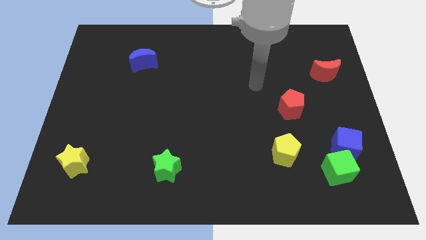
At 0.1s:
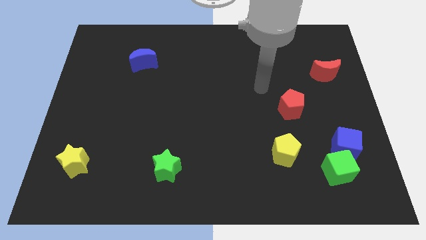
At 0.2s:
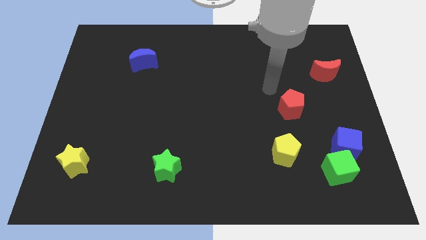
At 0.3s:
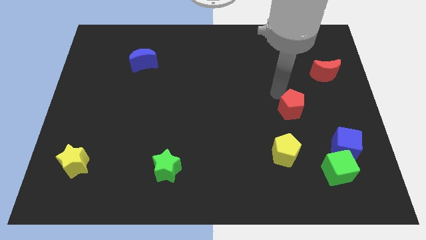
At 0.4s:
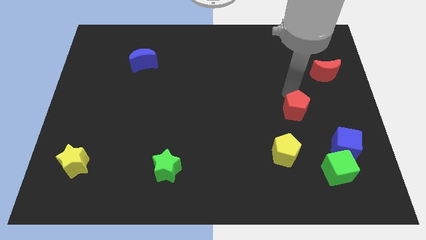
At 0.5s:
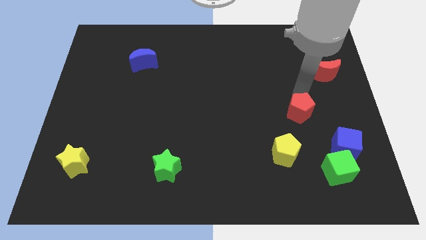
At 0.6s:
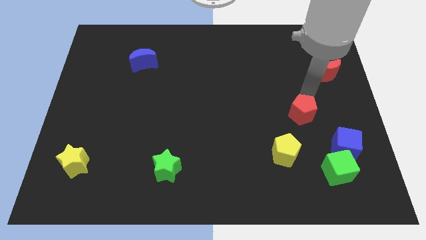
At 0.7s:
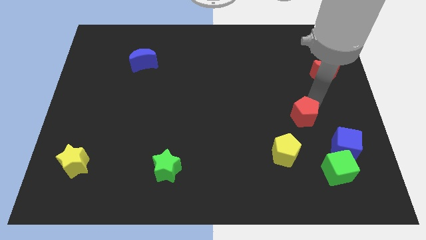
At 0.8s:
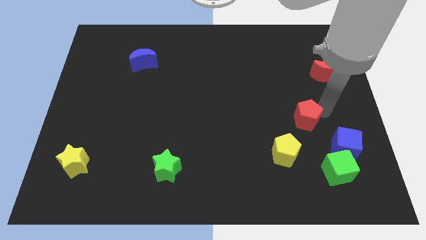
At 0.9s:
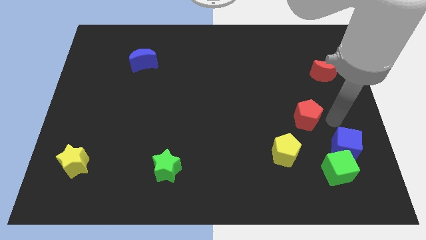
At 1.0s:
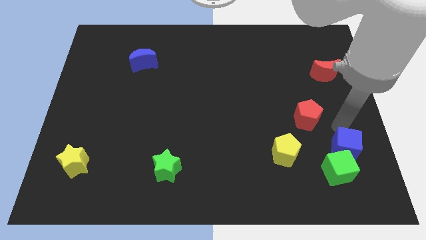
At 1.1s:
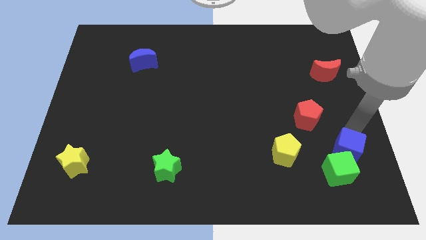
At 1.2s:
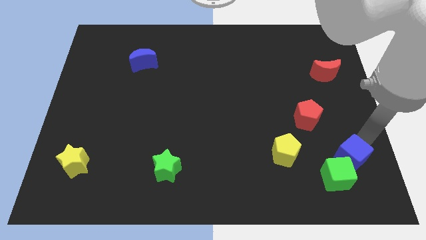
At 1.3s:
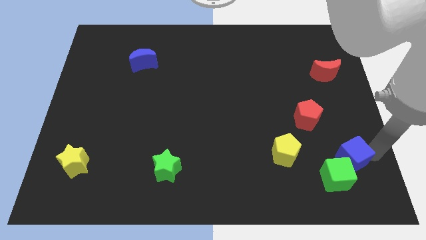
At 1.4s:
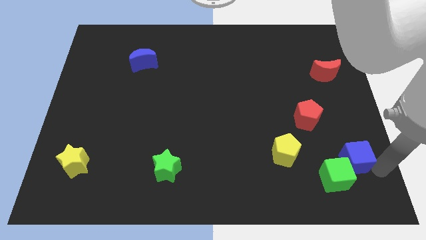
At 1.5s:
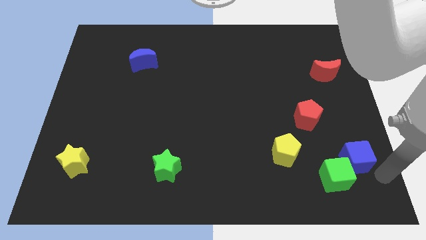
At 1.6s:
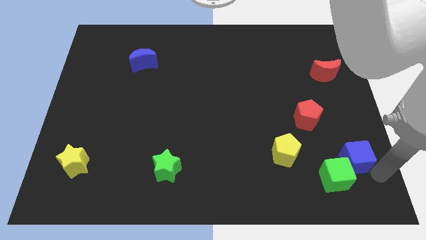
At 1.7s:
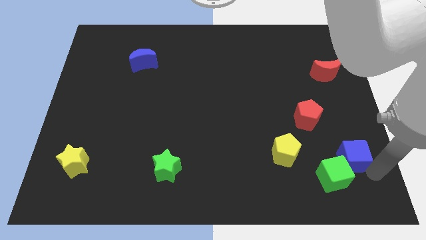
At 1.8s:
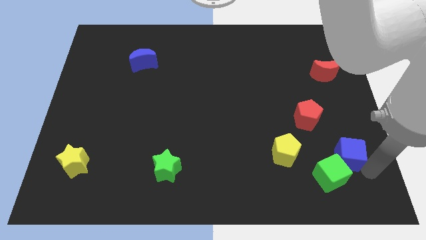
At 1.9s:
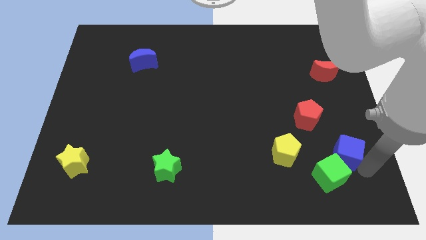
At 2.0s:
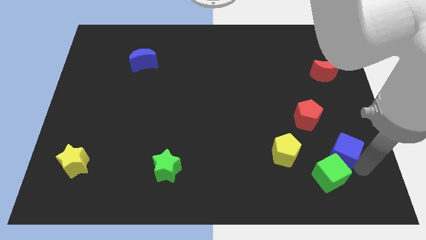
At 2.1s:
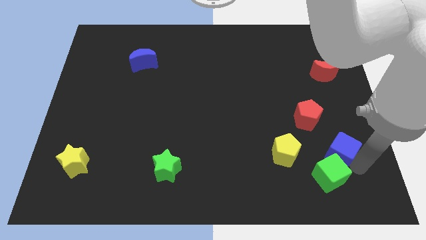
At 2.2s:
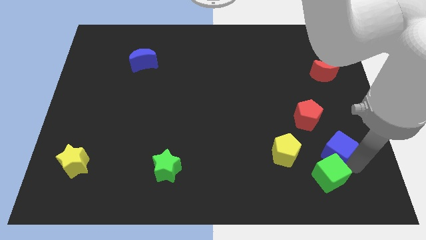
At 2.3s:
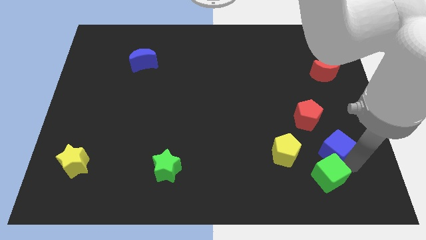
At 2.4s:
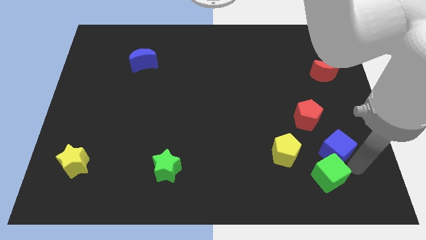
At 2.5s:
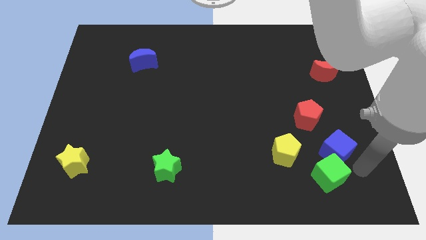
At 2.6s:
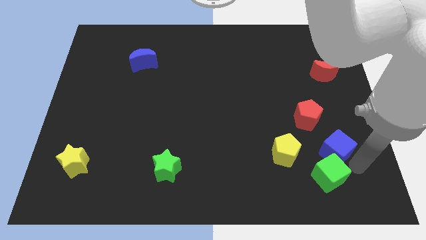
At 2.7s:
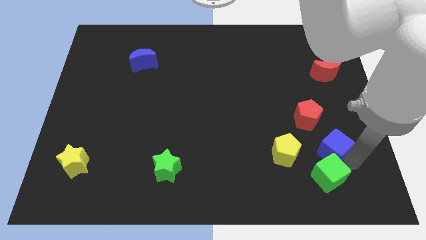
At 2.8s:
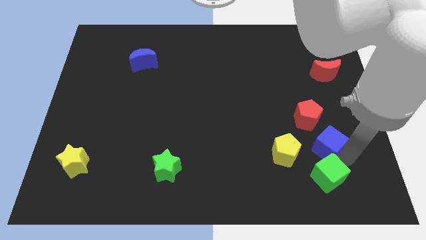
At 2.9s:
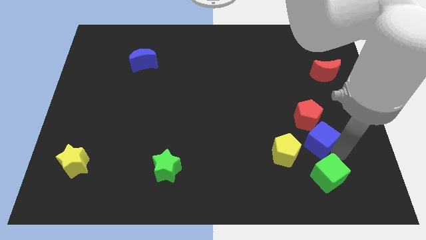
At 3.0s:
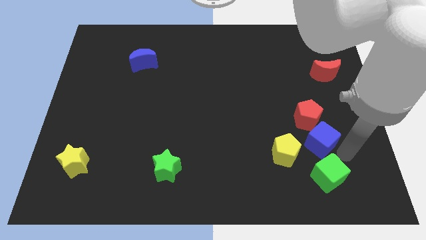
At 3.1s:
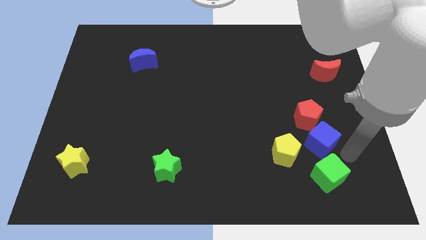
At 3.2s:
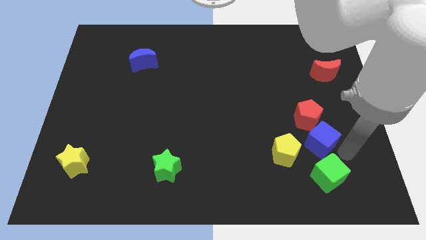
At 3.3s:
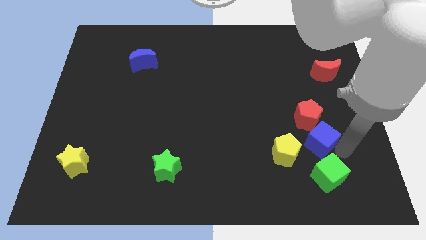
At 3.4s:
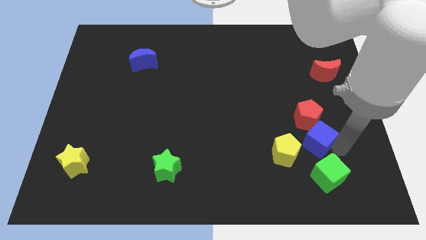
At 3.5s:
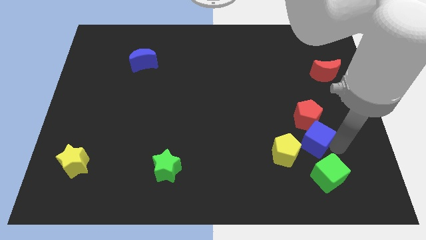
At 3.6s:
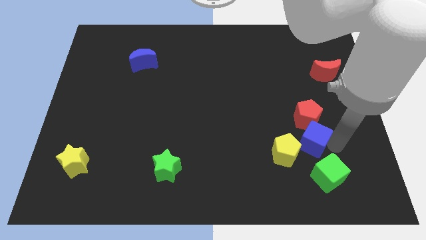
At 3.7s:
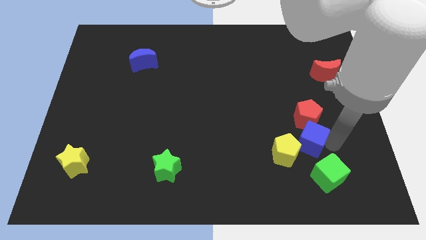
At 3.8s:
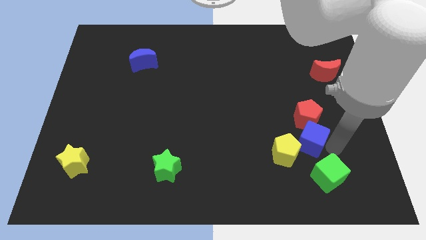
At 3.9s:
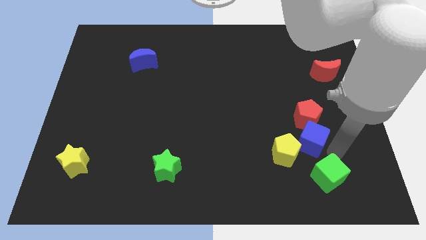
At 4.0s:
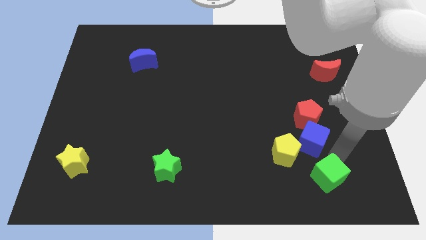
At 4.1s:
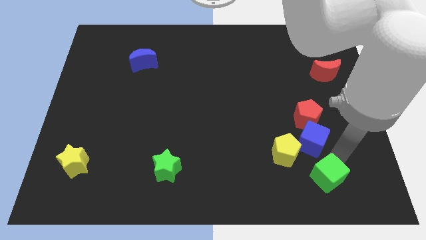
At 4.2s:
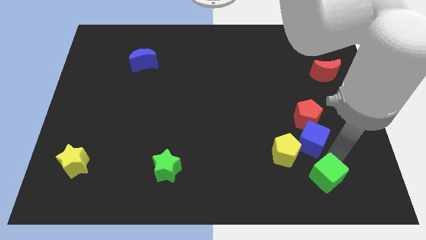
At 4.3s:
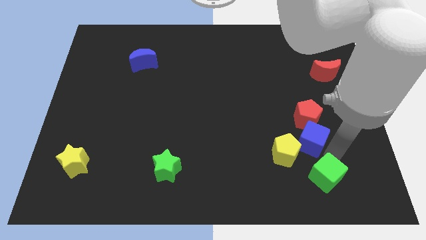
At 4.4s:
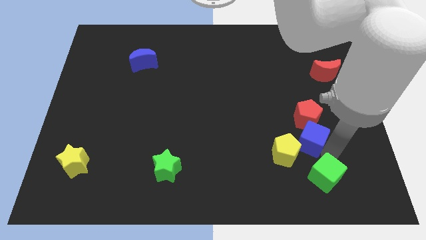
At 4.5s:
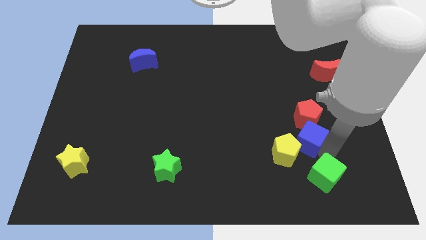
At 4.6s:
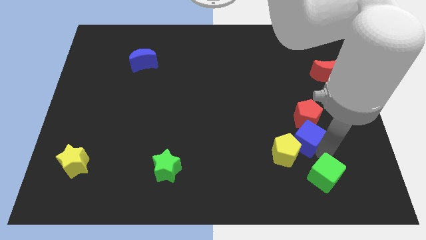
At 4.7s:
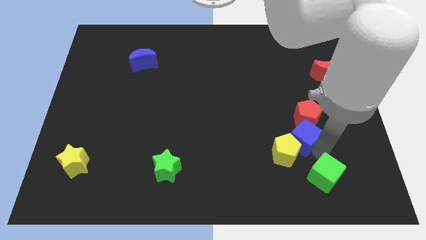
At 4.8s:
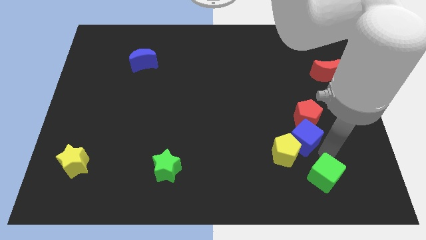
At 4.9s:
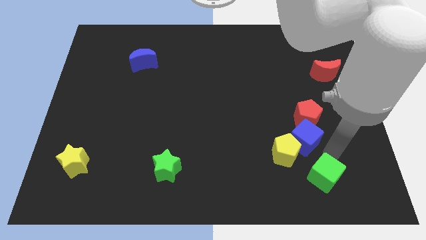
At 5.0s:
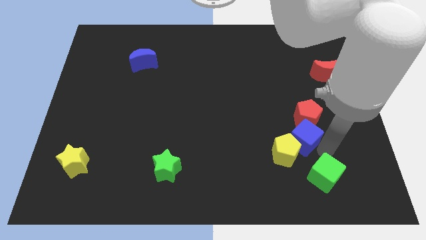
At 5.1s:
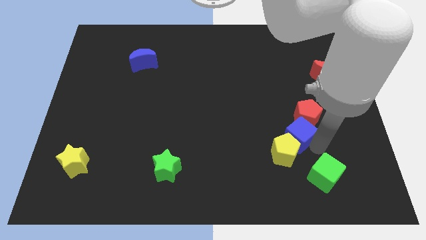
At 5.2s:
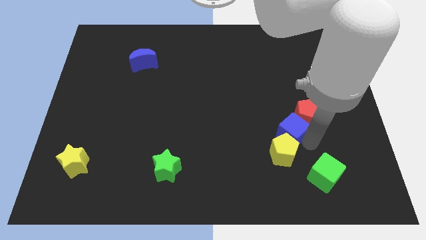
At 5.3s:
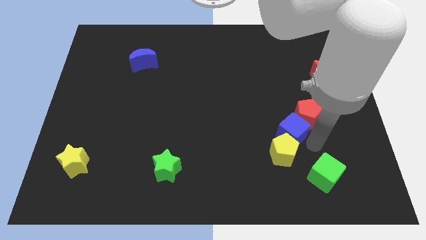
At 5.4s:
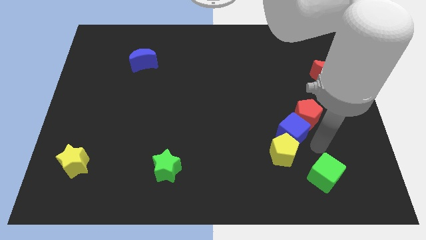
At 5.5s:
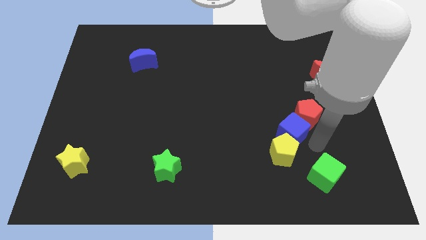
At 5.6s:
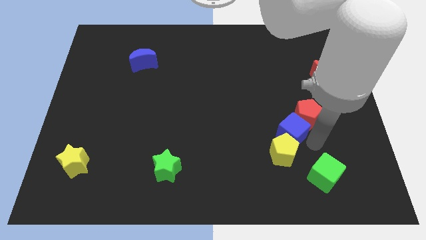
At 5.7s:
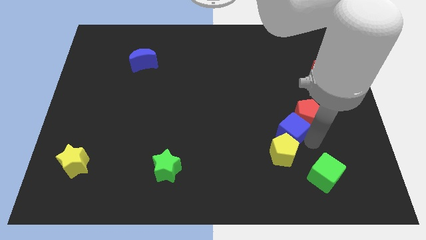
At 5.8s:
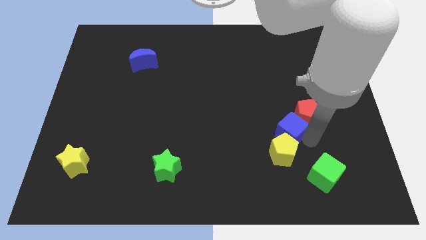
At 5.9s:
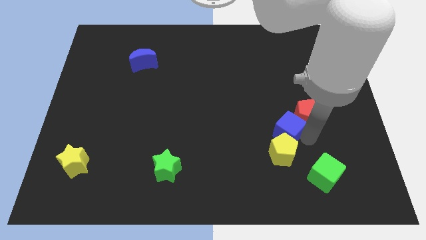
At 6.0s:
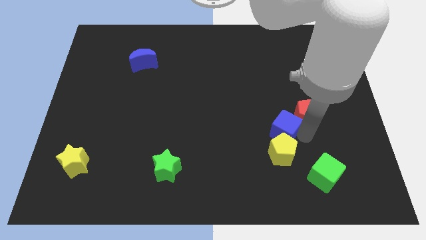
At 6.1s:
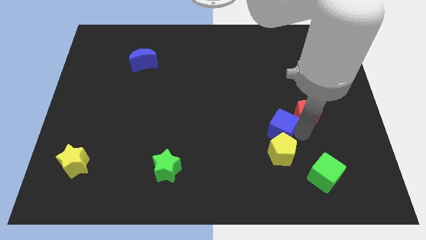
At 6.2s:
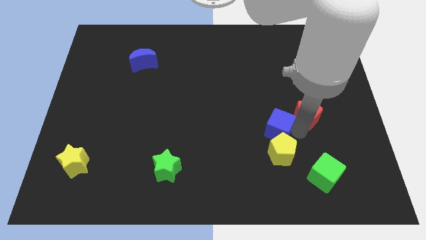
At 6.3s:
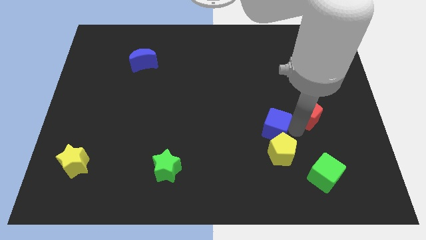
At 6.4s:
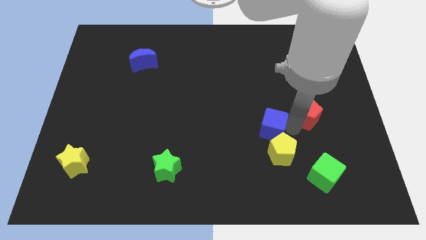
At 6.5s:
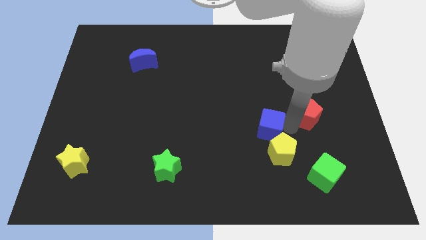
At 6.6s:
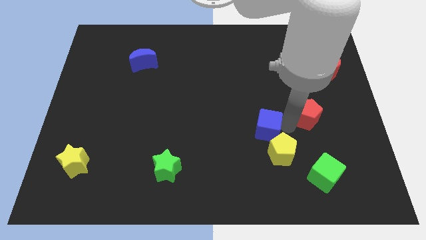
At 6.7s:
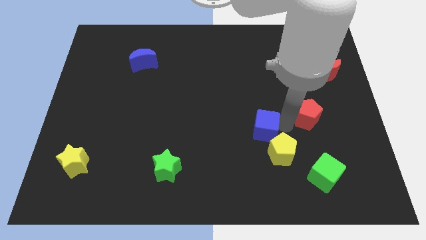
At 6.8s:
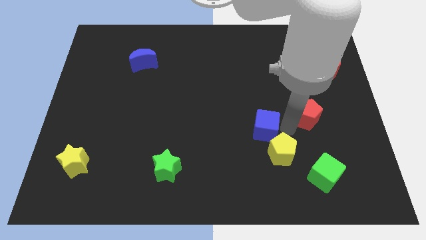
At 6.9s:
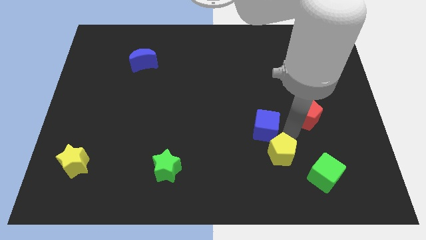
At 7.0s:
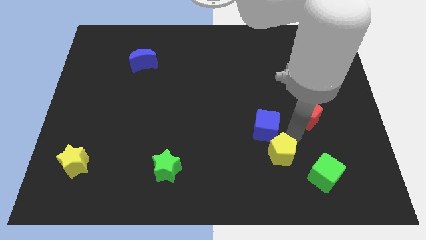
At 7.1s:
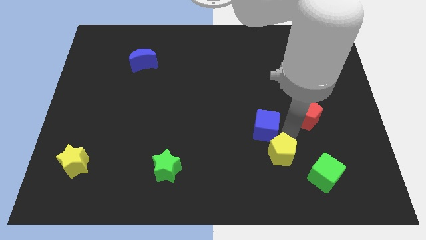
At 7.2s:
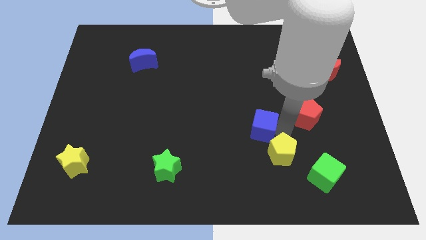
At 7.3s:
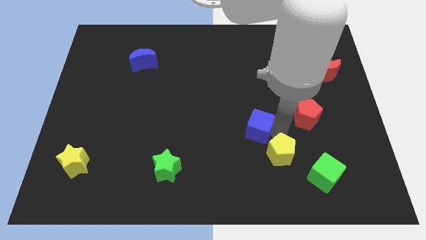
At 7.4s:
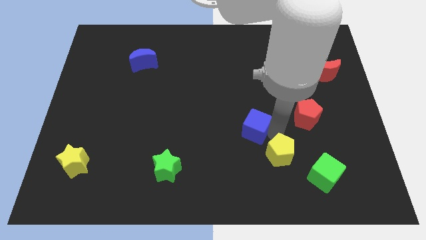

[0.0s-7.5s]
put the blue cube to the middle
